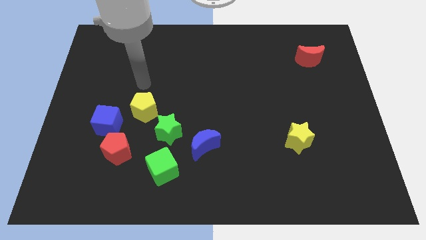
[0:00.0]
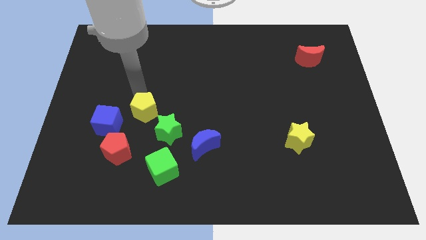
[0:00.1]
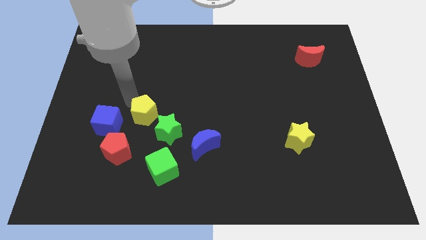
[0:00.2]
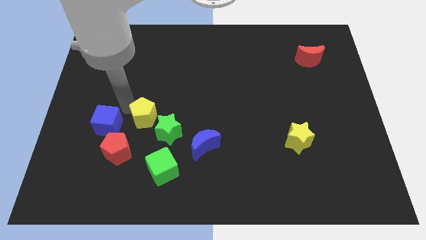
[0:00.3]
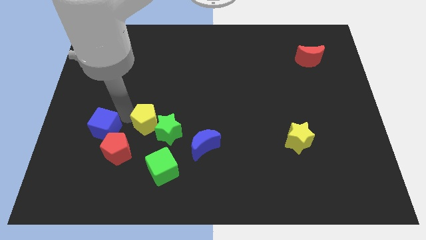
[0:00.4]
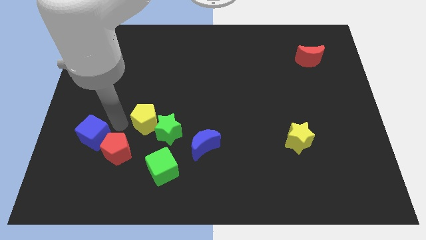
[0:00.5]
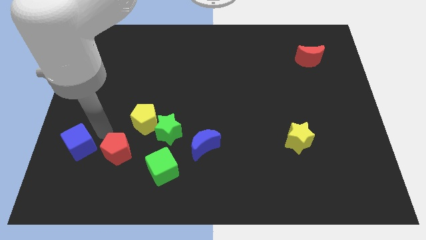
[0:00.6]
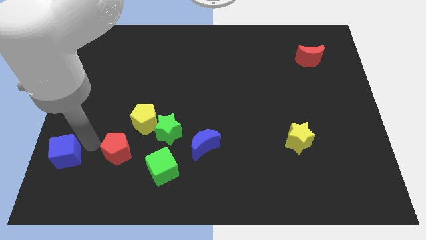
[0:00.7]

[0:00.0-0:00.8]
move the red pentagon away from the blue cube

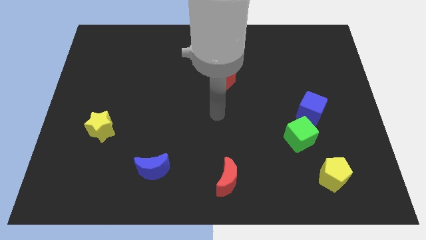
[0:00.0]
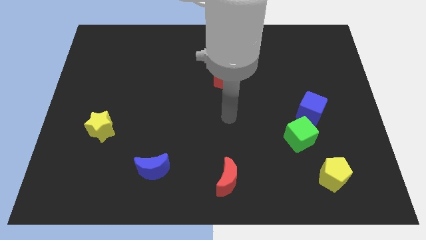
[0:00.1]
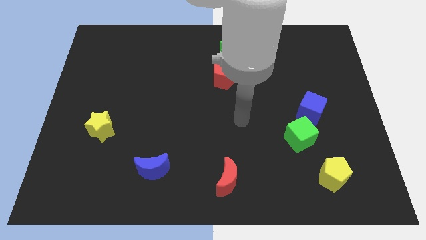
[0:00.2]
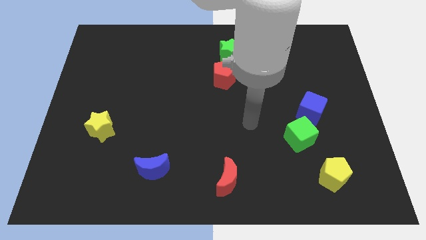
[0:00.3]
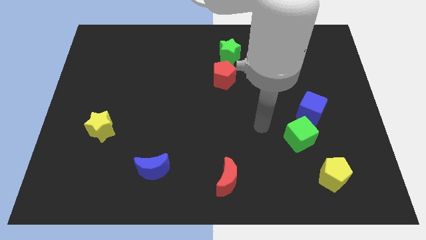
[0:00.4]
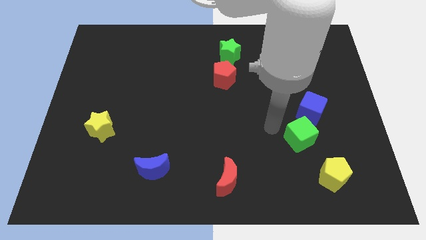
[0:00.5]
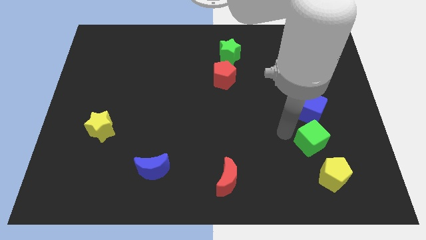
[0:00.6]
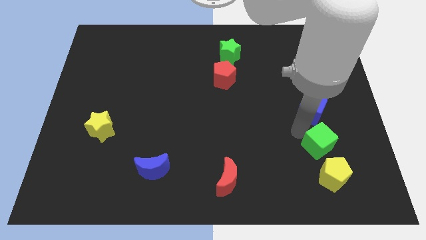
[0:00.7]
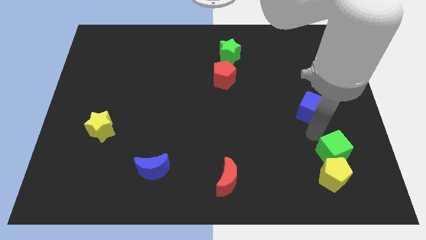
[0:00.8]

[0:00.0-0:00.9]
move the blue cube away from the green cube

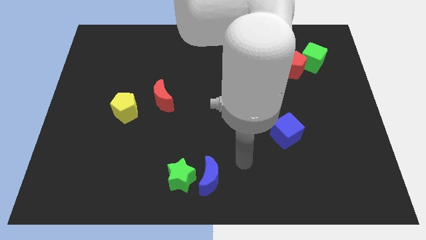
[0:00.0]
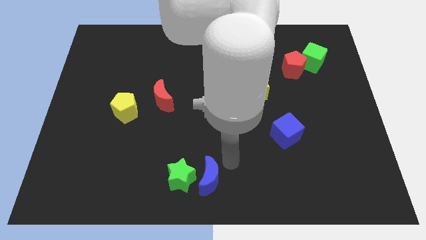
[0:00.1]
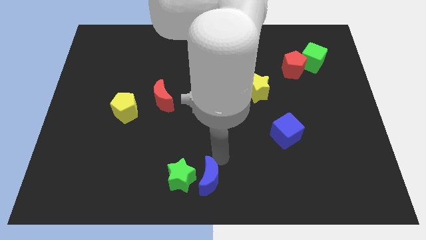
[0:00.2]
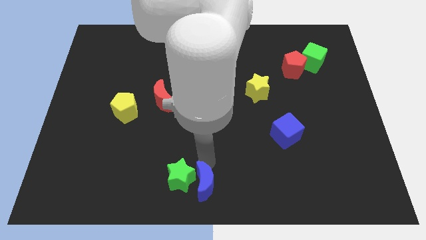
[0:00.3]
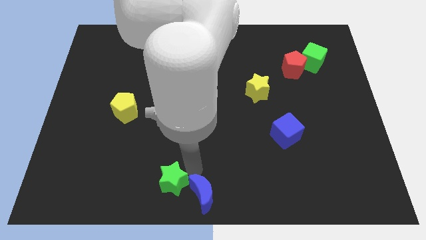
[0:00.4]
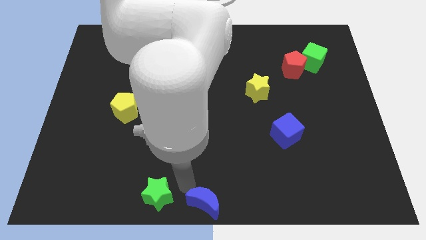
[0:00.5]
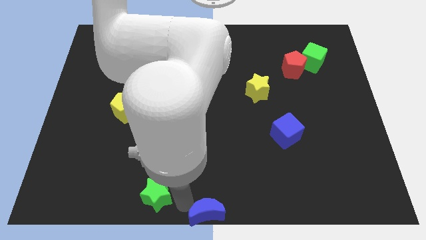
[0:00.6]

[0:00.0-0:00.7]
move the blue moon away from the green star

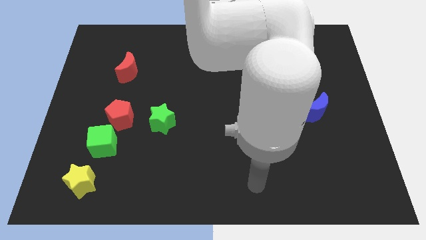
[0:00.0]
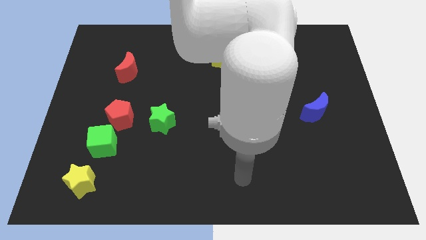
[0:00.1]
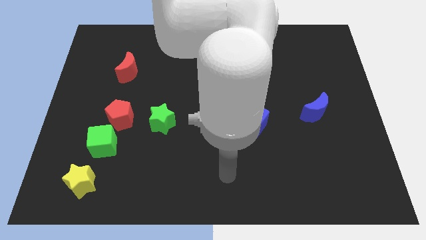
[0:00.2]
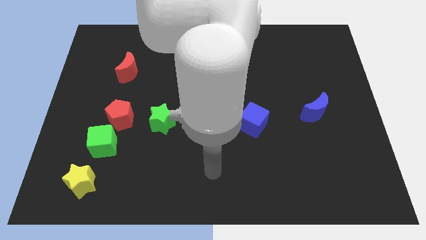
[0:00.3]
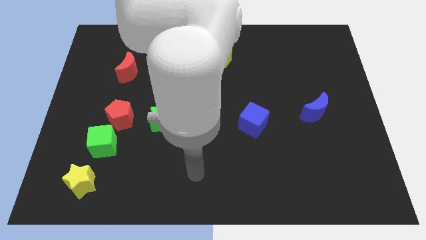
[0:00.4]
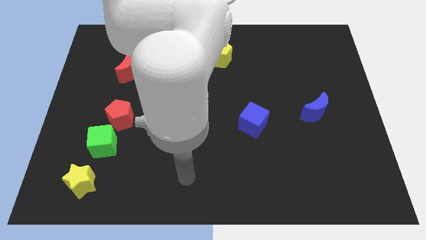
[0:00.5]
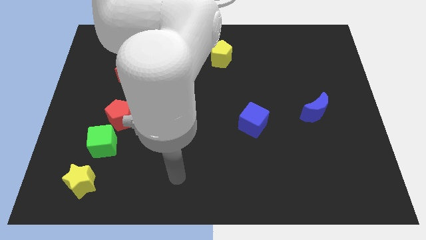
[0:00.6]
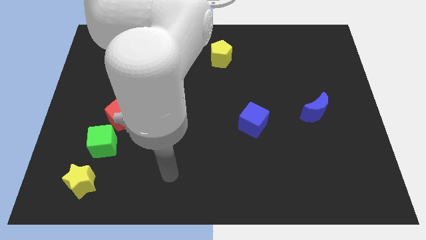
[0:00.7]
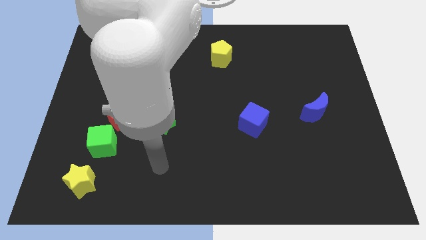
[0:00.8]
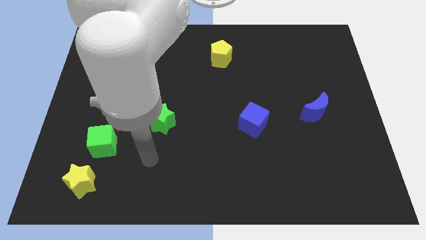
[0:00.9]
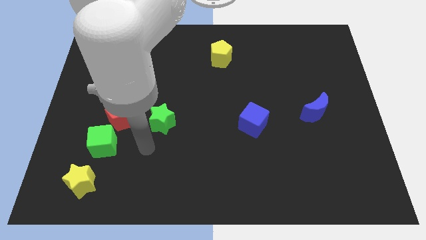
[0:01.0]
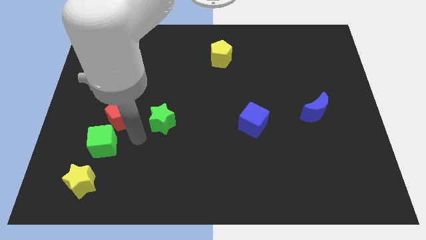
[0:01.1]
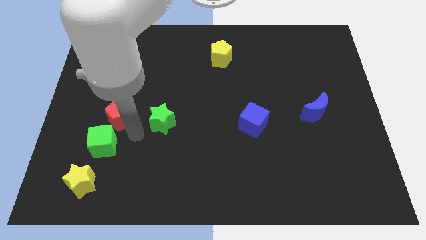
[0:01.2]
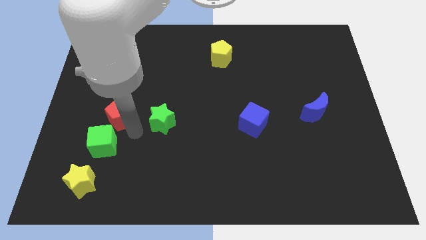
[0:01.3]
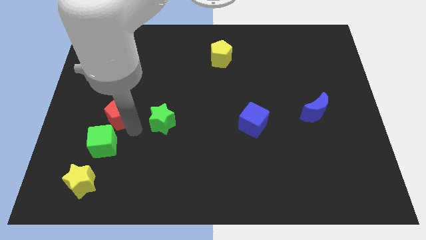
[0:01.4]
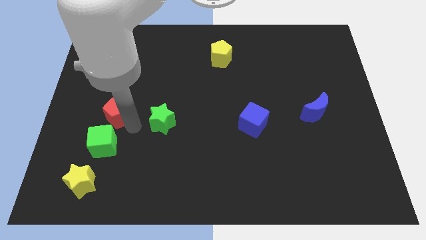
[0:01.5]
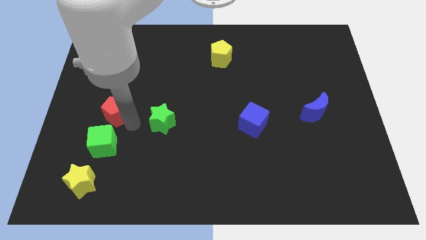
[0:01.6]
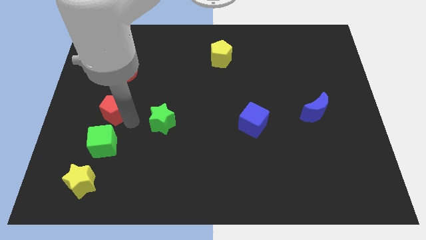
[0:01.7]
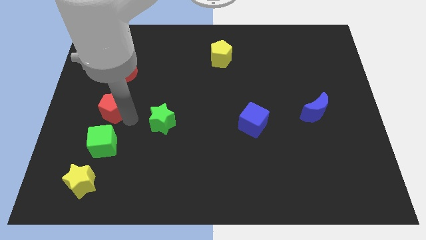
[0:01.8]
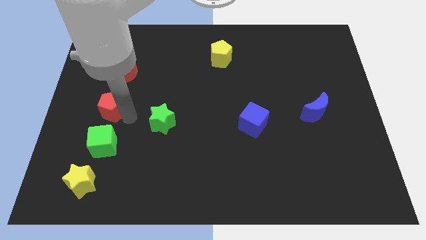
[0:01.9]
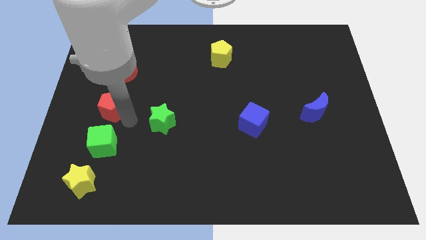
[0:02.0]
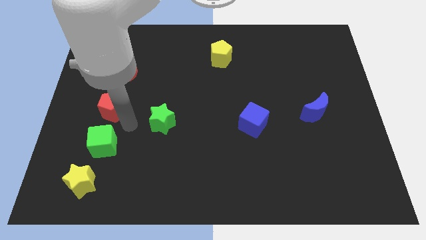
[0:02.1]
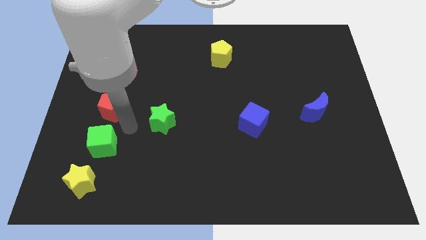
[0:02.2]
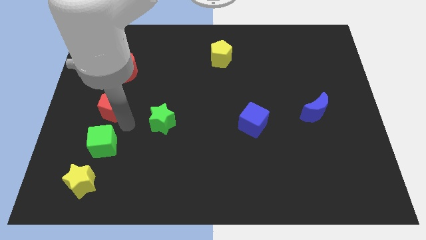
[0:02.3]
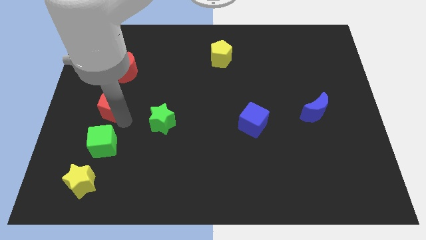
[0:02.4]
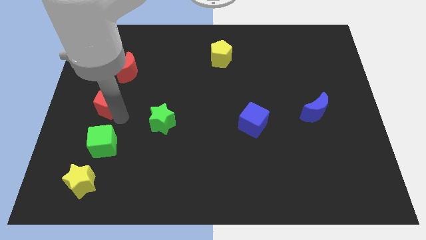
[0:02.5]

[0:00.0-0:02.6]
pull the red pentagon apart from the green cube and green star

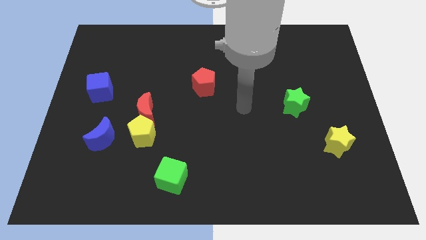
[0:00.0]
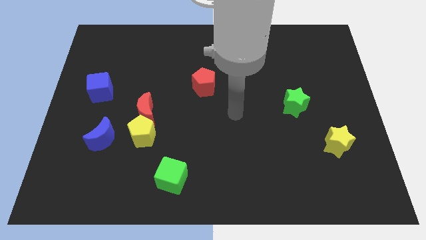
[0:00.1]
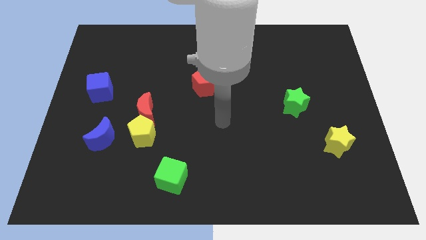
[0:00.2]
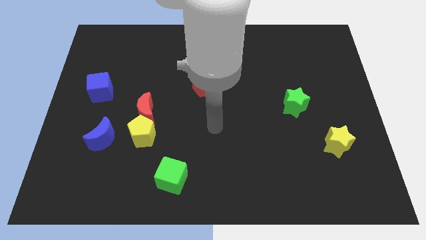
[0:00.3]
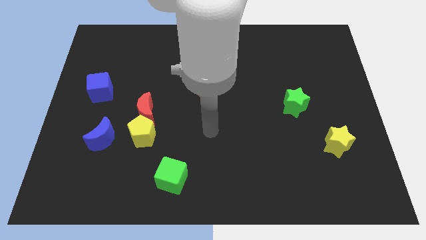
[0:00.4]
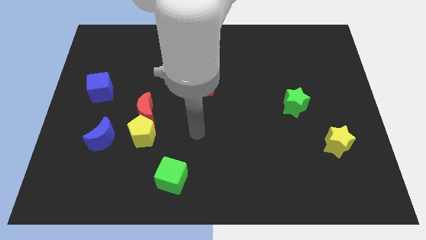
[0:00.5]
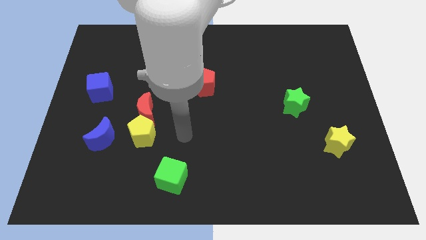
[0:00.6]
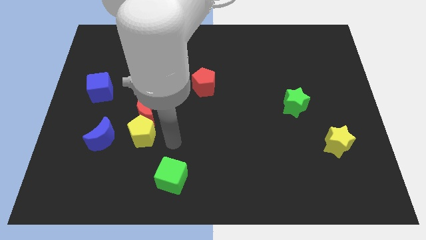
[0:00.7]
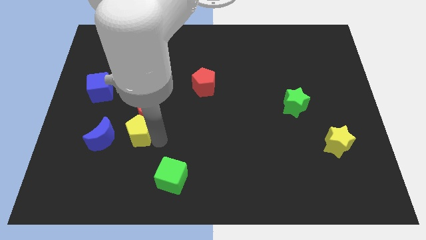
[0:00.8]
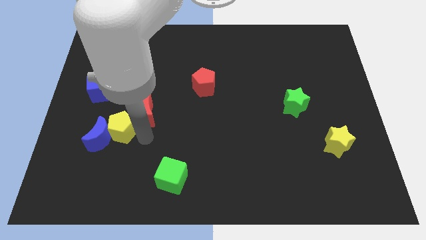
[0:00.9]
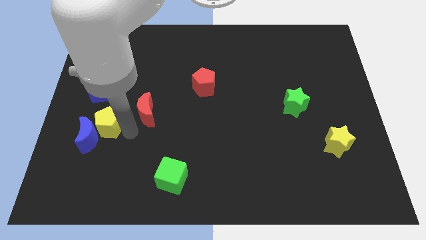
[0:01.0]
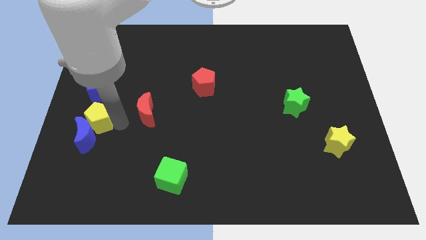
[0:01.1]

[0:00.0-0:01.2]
pull the red moon apart from the yellow pentagon

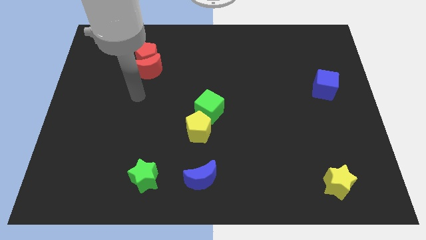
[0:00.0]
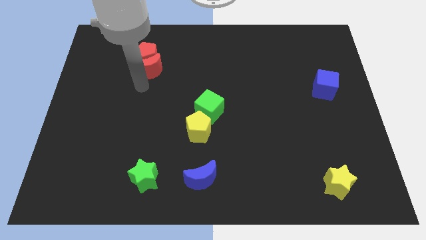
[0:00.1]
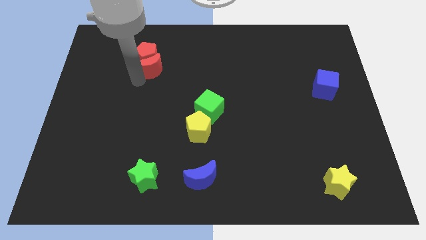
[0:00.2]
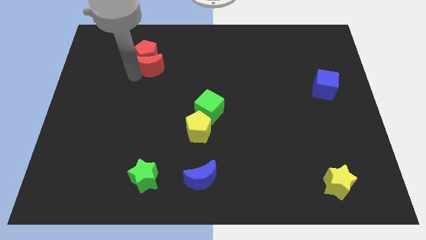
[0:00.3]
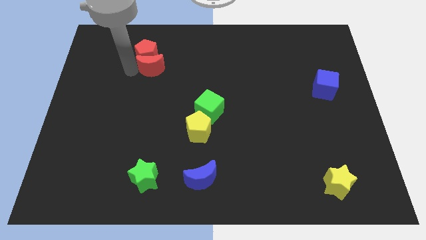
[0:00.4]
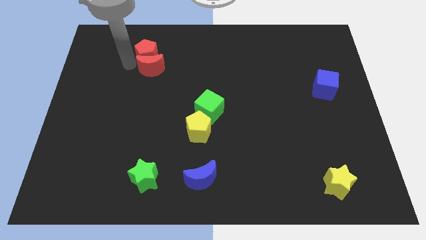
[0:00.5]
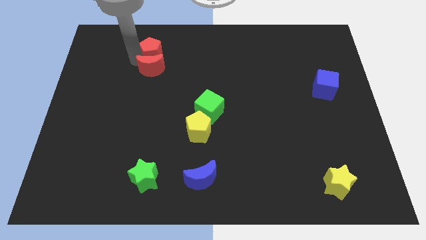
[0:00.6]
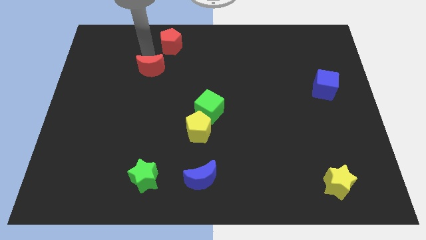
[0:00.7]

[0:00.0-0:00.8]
move the red moon away from the red pentagon

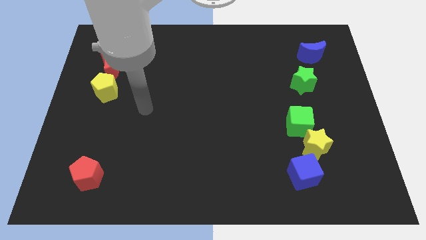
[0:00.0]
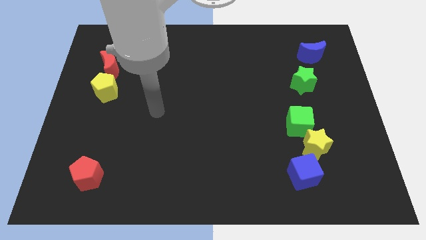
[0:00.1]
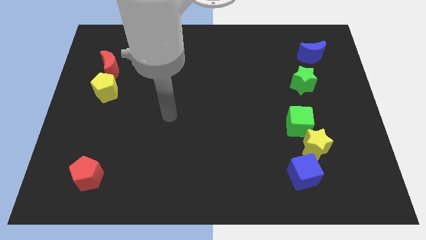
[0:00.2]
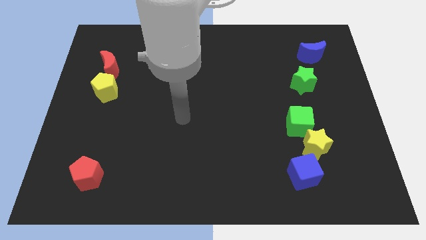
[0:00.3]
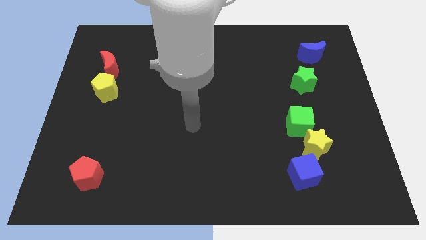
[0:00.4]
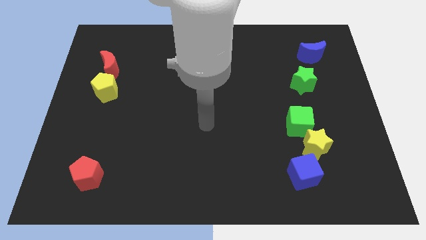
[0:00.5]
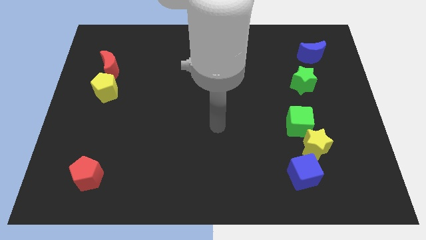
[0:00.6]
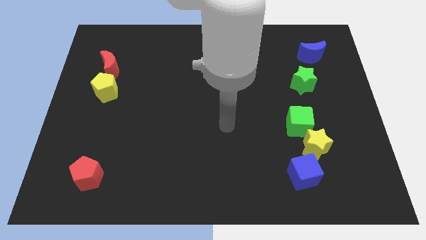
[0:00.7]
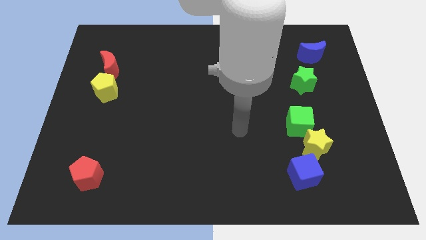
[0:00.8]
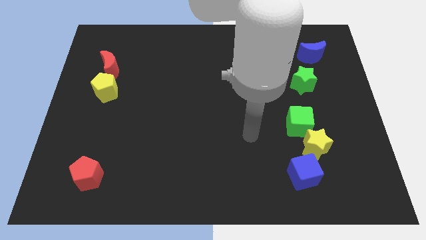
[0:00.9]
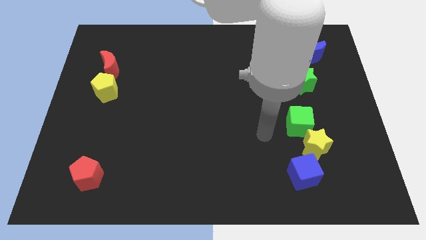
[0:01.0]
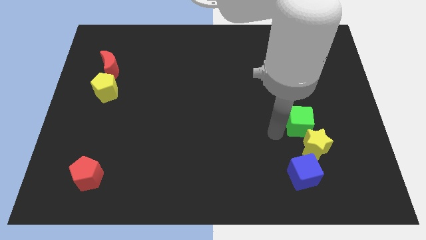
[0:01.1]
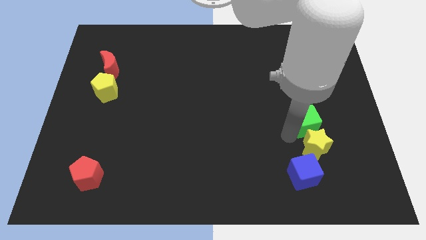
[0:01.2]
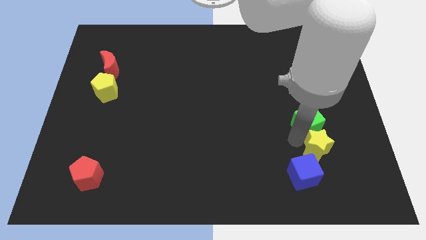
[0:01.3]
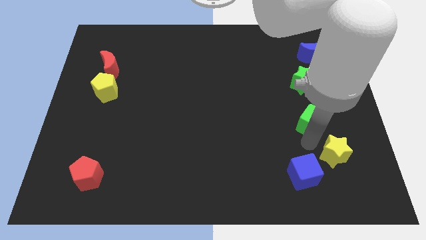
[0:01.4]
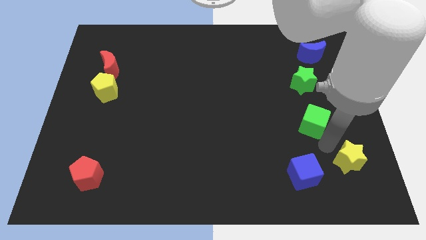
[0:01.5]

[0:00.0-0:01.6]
pull the green cube apart from the yellow star

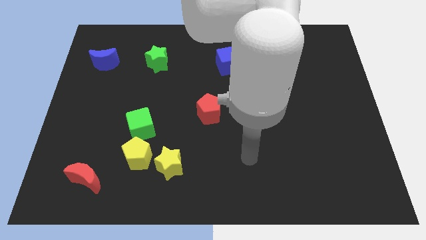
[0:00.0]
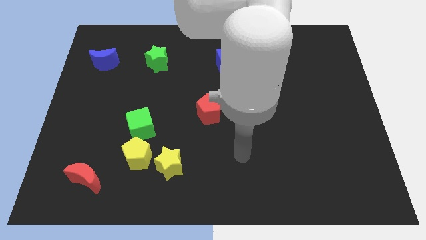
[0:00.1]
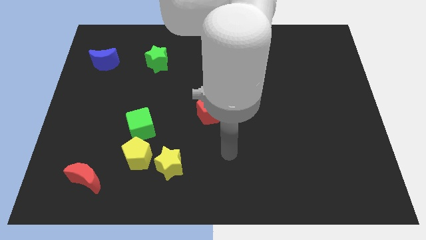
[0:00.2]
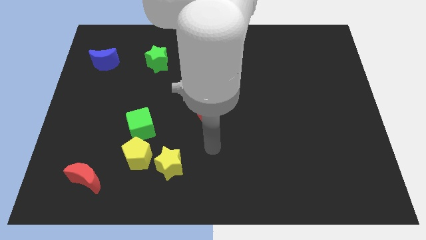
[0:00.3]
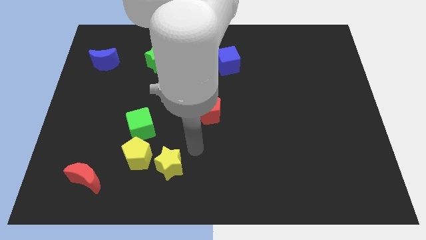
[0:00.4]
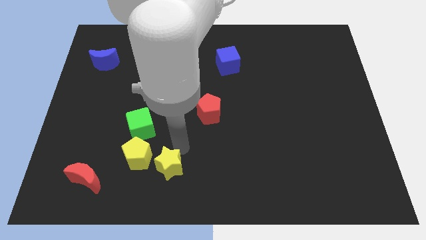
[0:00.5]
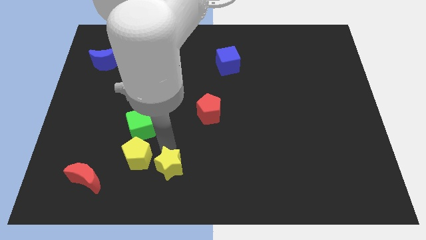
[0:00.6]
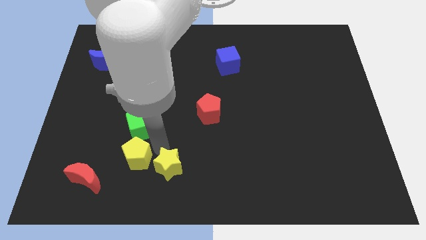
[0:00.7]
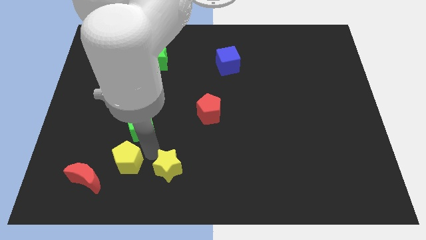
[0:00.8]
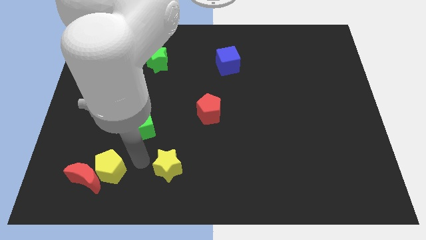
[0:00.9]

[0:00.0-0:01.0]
pull the yellow star apart from the yellow pentagon
